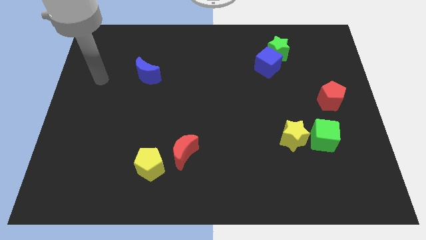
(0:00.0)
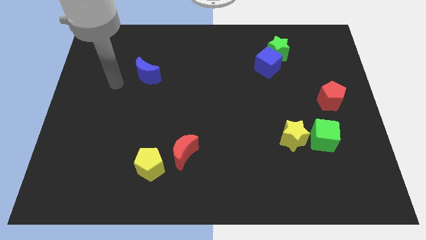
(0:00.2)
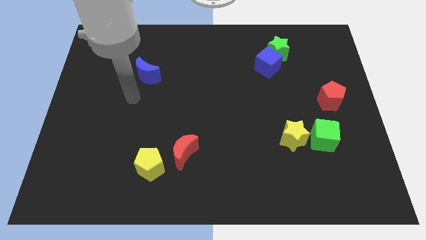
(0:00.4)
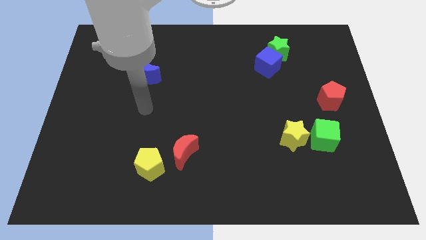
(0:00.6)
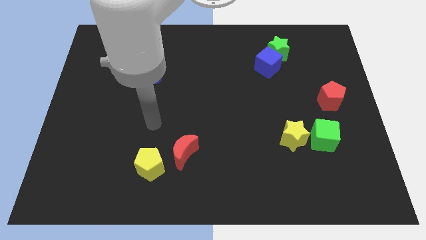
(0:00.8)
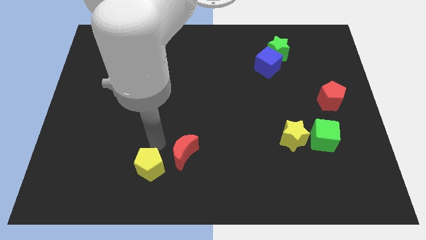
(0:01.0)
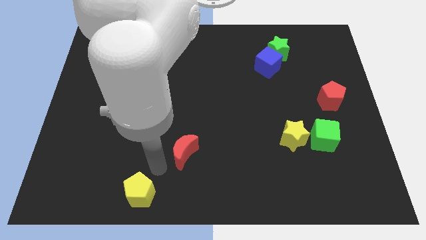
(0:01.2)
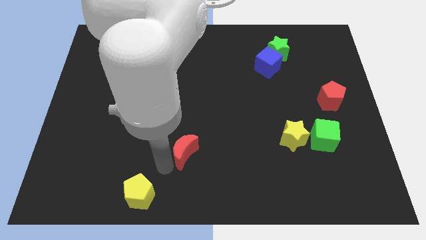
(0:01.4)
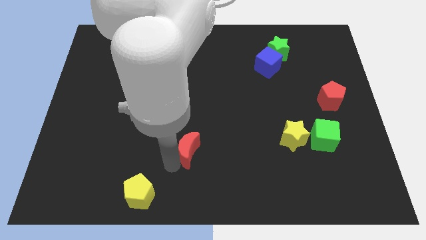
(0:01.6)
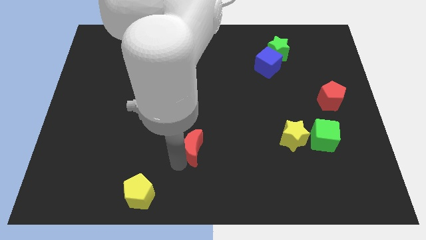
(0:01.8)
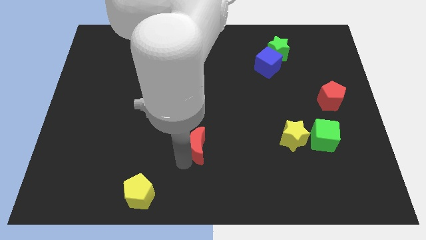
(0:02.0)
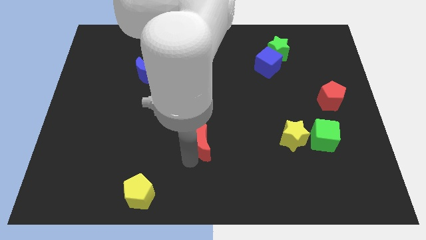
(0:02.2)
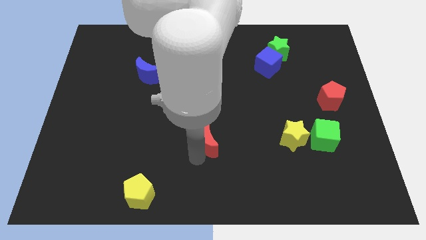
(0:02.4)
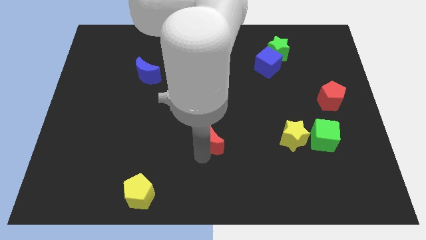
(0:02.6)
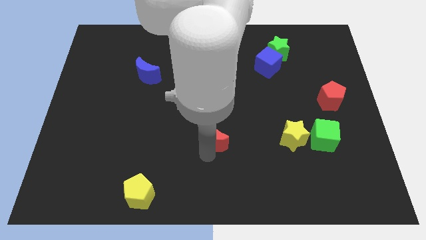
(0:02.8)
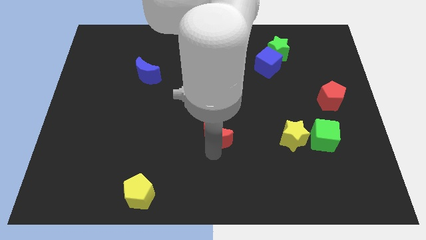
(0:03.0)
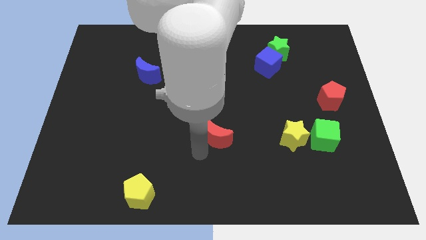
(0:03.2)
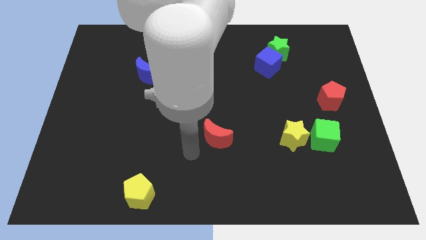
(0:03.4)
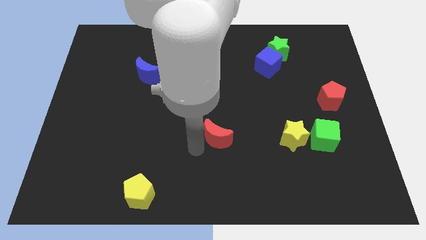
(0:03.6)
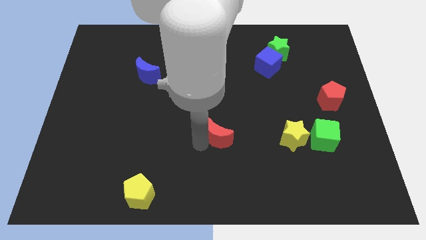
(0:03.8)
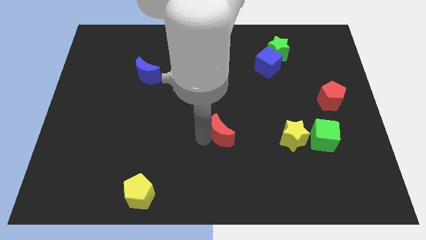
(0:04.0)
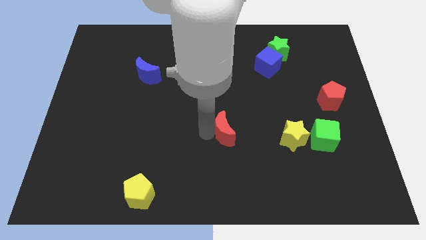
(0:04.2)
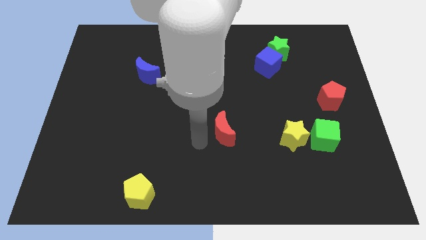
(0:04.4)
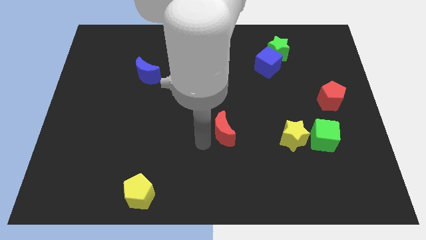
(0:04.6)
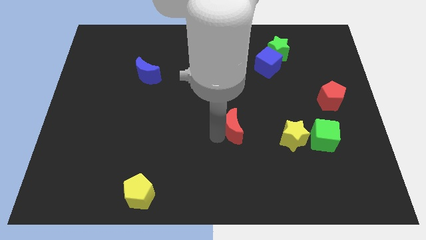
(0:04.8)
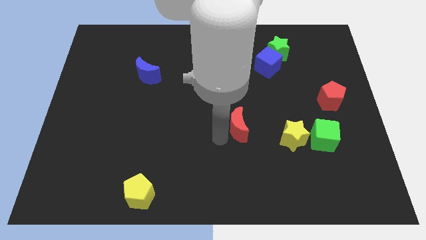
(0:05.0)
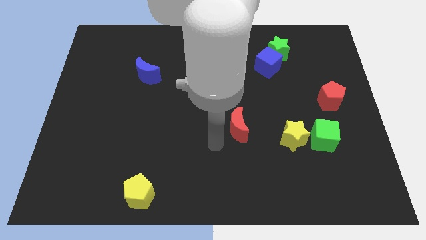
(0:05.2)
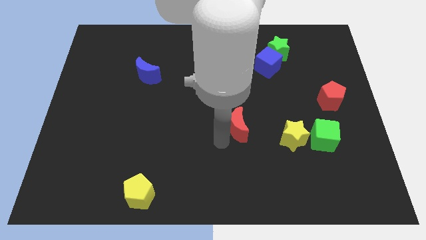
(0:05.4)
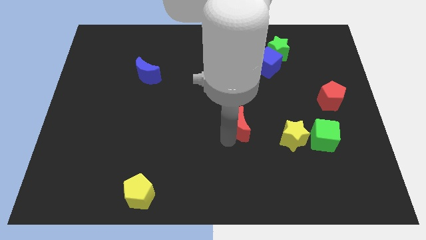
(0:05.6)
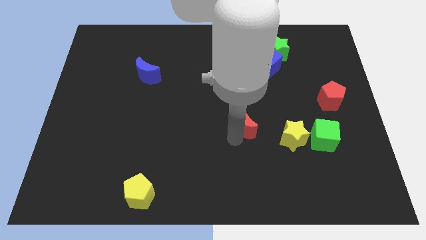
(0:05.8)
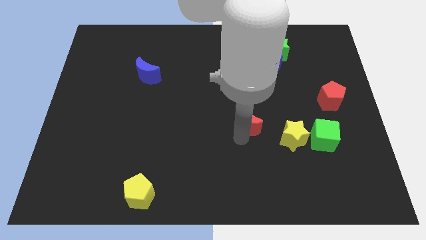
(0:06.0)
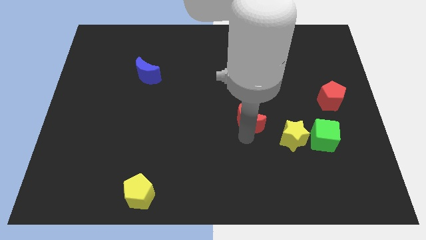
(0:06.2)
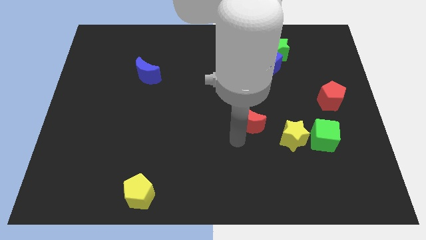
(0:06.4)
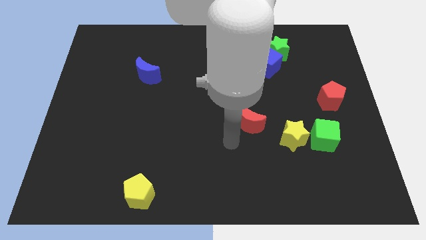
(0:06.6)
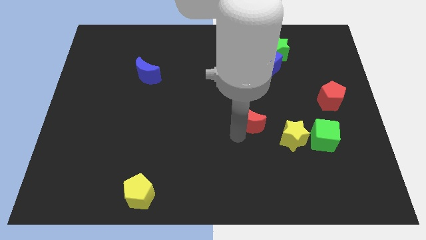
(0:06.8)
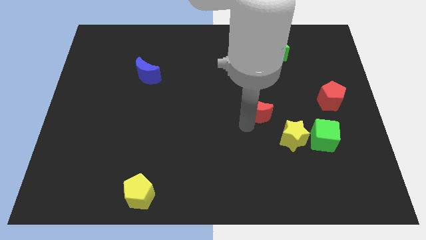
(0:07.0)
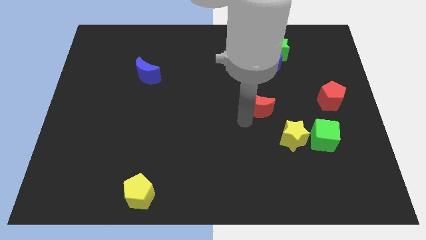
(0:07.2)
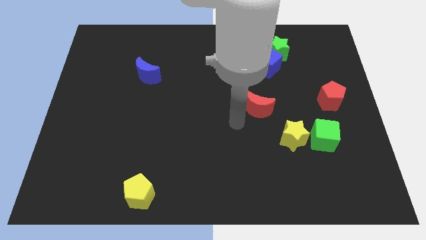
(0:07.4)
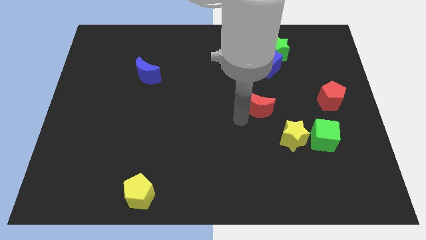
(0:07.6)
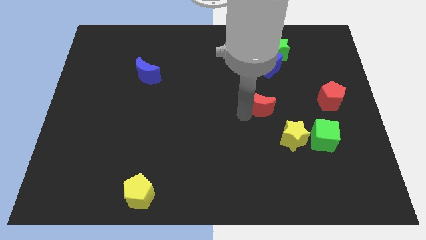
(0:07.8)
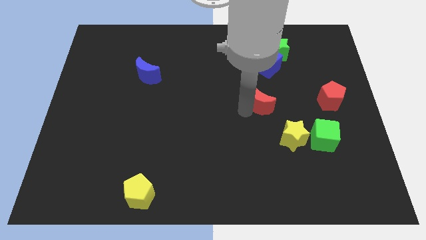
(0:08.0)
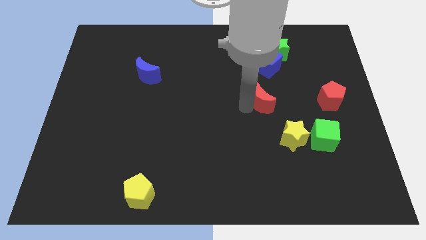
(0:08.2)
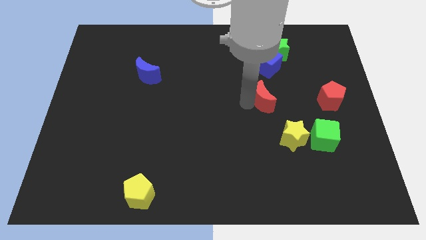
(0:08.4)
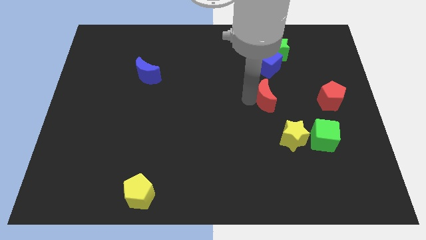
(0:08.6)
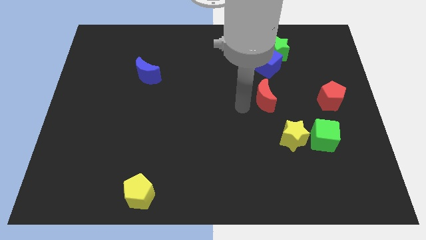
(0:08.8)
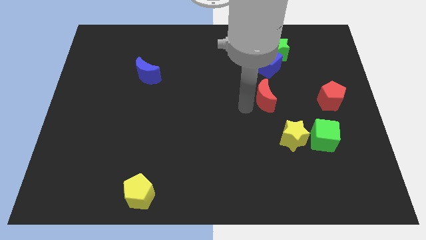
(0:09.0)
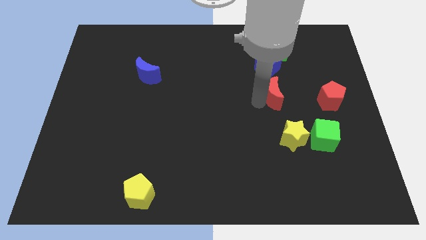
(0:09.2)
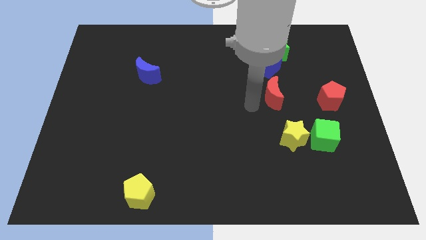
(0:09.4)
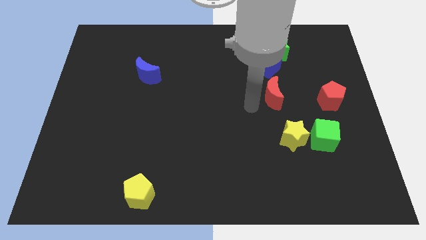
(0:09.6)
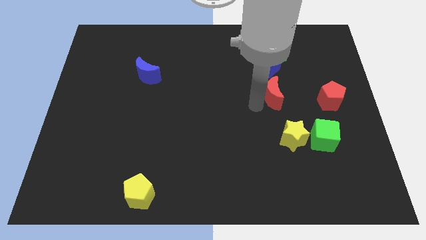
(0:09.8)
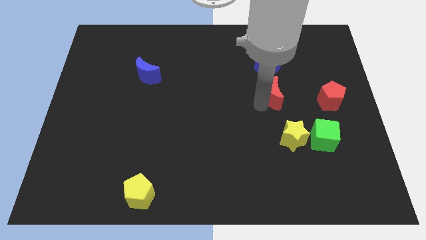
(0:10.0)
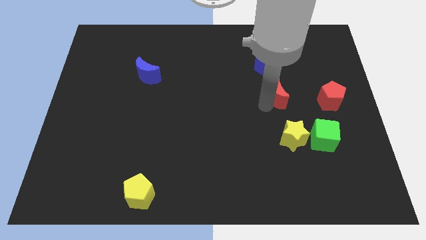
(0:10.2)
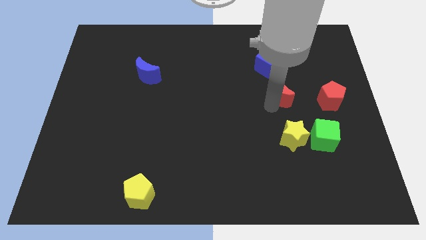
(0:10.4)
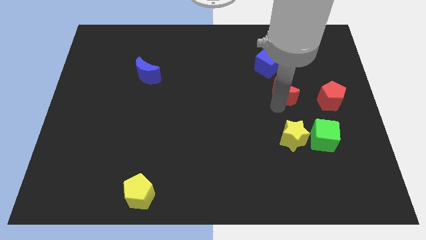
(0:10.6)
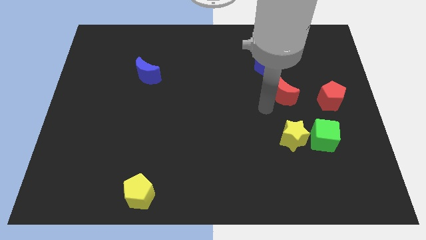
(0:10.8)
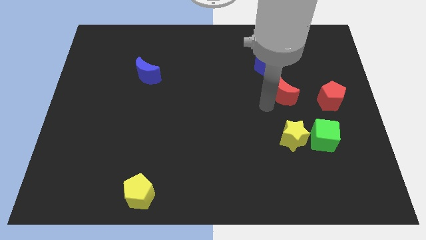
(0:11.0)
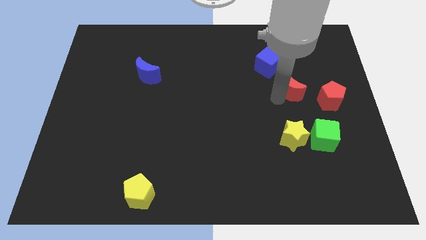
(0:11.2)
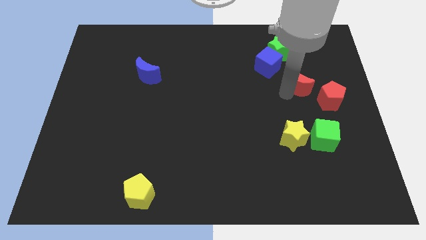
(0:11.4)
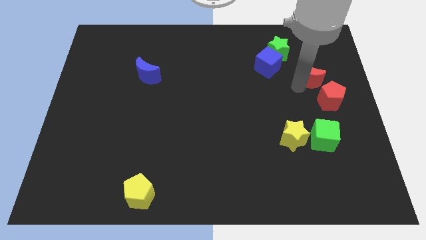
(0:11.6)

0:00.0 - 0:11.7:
put the red moon to the top side of the red pentagon

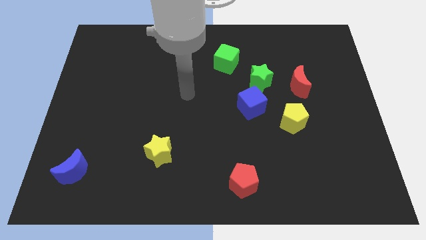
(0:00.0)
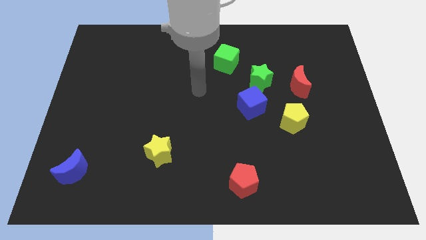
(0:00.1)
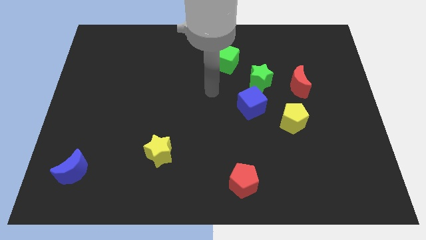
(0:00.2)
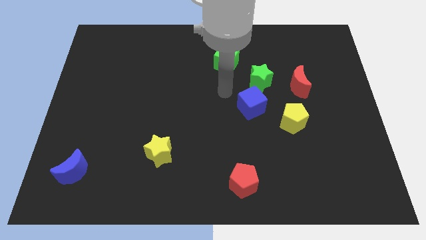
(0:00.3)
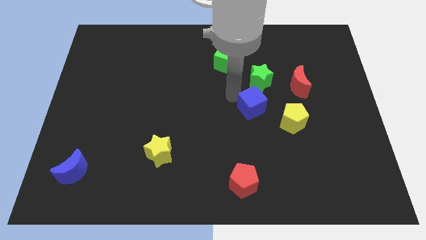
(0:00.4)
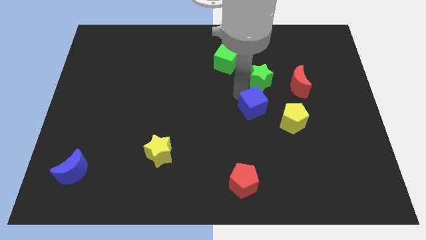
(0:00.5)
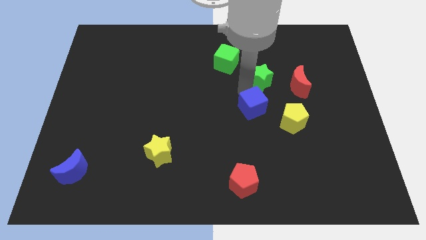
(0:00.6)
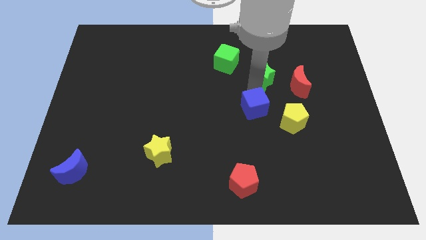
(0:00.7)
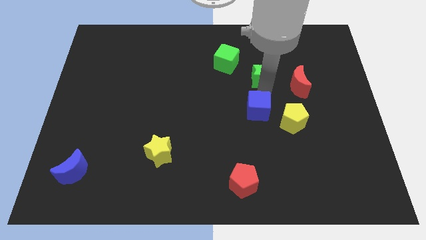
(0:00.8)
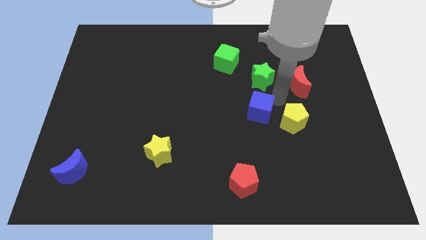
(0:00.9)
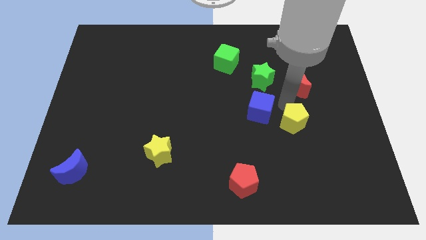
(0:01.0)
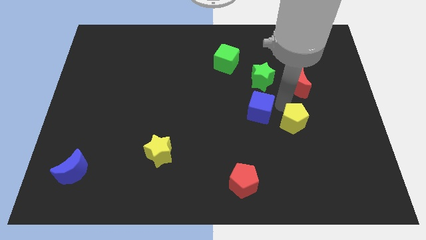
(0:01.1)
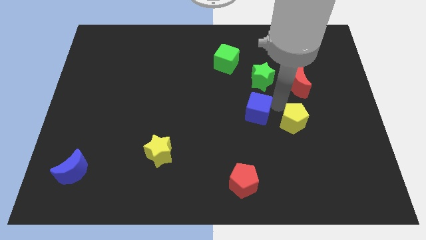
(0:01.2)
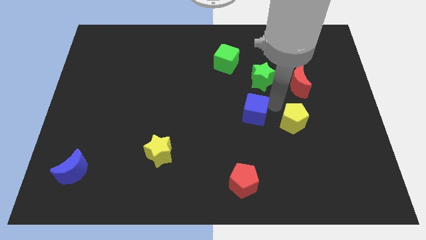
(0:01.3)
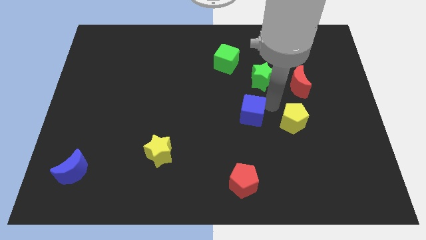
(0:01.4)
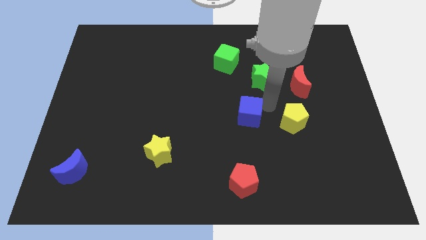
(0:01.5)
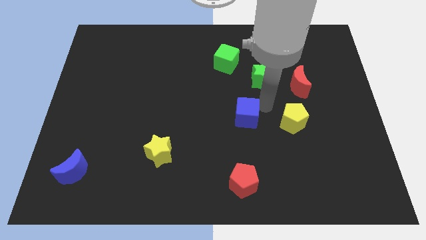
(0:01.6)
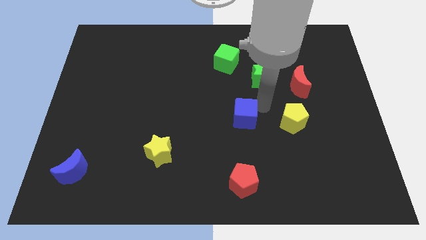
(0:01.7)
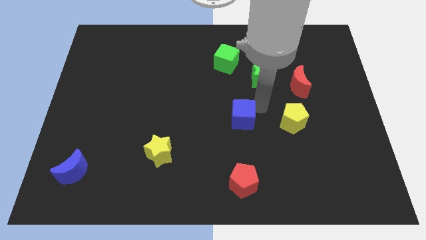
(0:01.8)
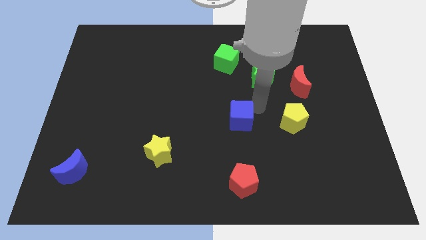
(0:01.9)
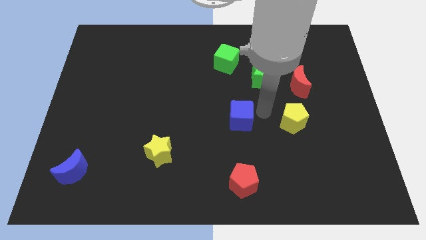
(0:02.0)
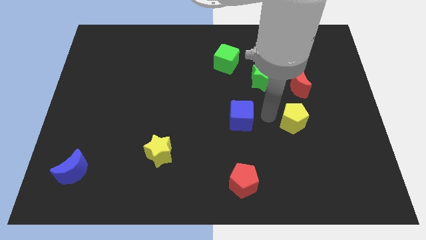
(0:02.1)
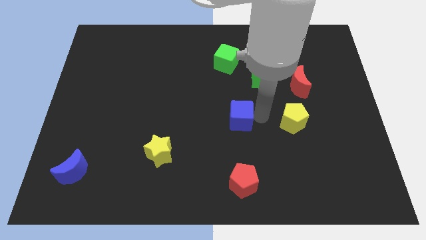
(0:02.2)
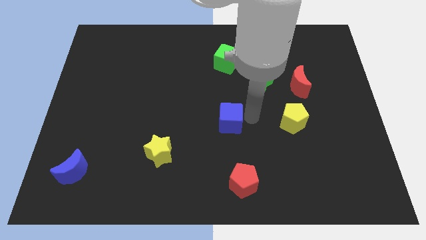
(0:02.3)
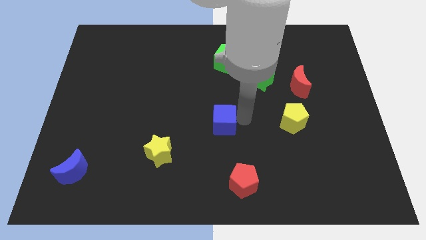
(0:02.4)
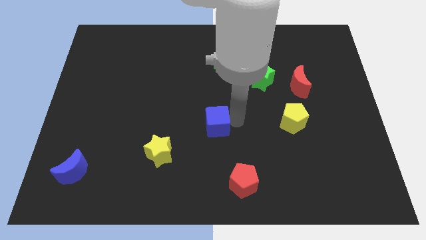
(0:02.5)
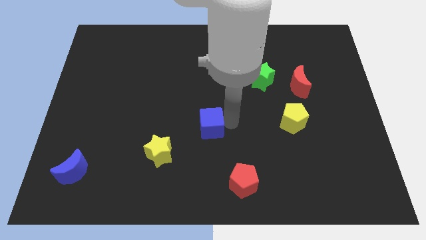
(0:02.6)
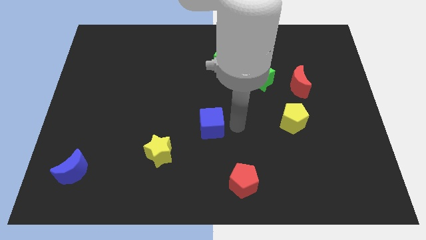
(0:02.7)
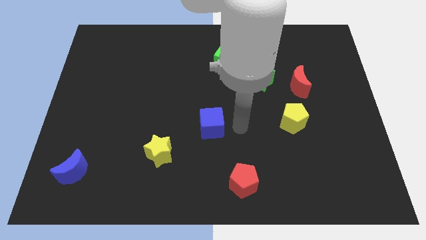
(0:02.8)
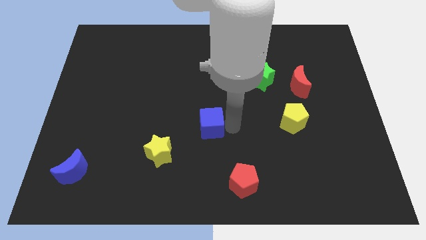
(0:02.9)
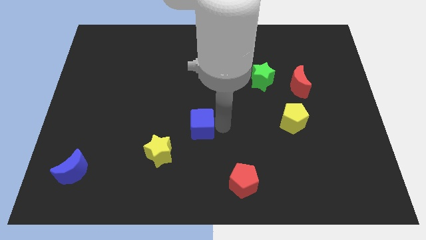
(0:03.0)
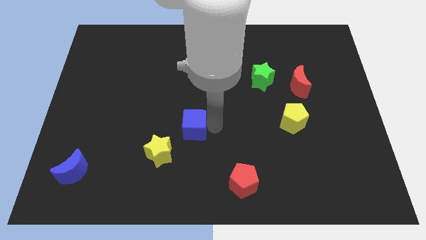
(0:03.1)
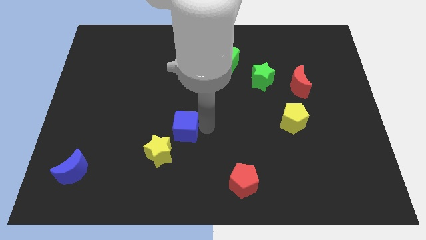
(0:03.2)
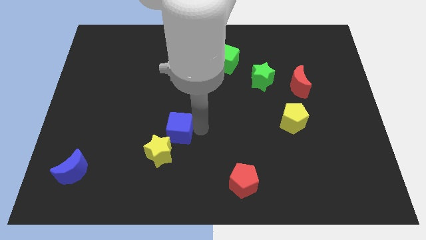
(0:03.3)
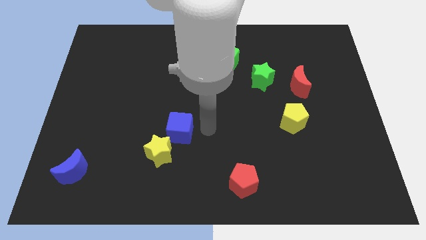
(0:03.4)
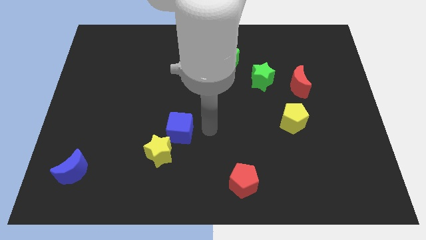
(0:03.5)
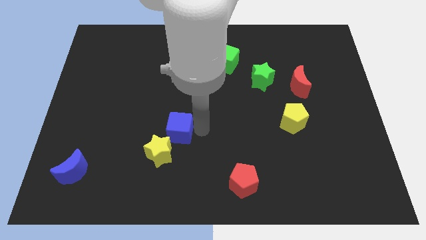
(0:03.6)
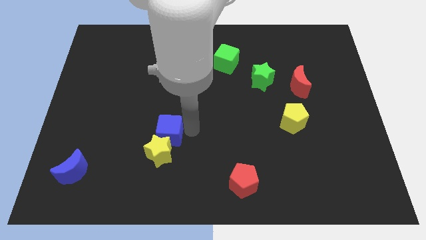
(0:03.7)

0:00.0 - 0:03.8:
move the blue cube diagonally up and to the left of the yellow star
